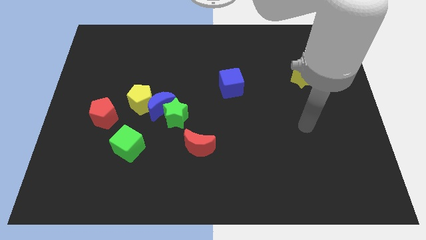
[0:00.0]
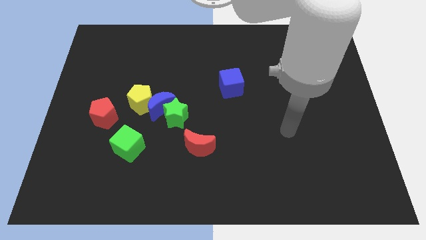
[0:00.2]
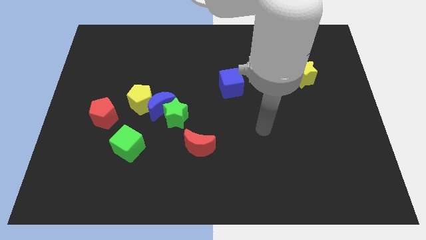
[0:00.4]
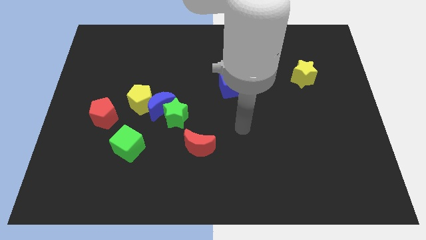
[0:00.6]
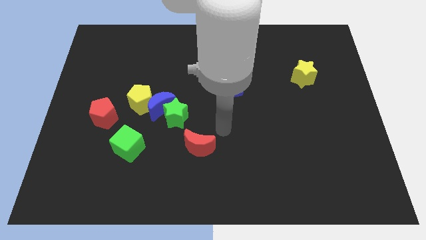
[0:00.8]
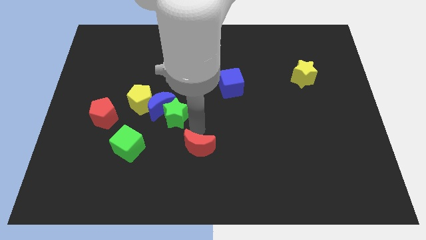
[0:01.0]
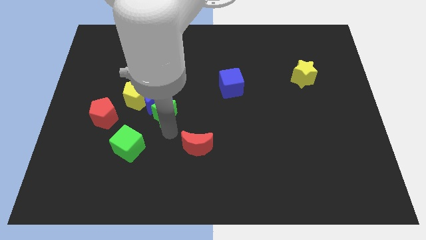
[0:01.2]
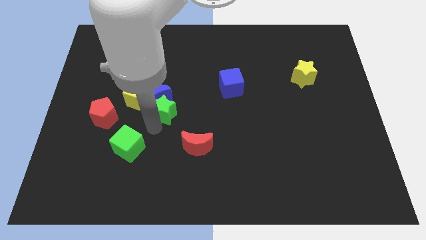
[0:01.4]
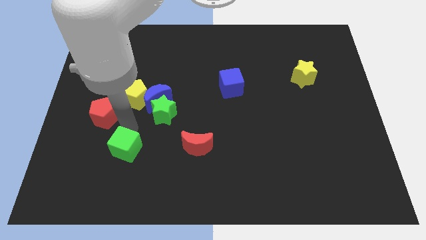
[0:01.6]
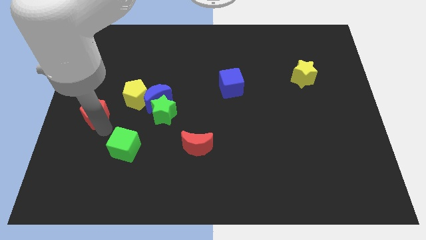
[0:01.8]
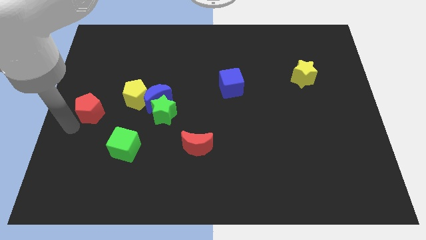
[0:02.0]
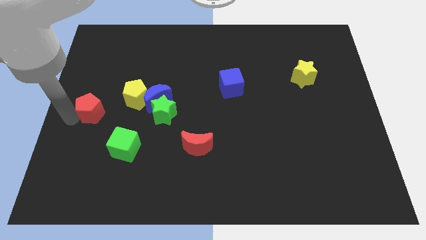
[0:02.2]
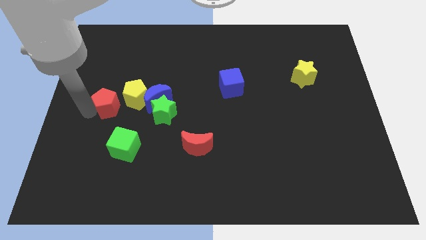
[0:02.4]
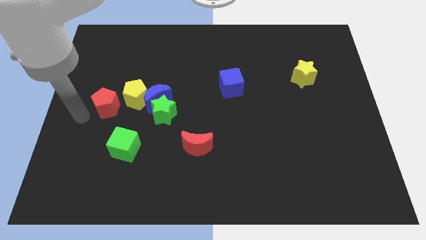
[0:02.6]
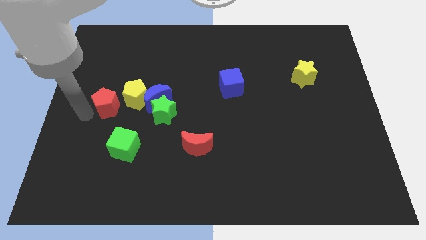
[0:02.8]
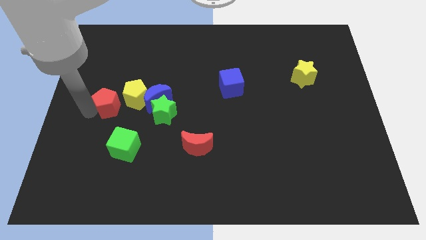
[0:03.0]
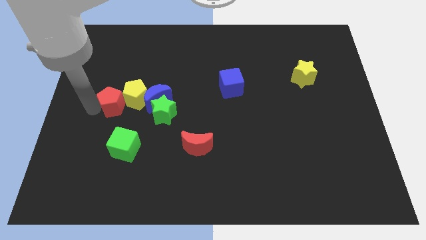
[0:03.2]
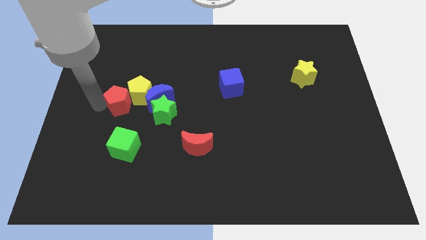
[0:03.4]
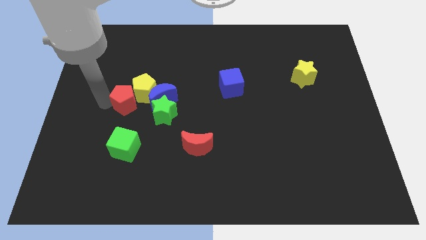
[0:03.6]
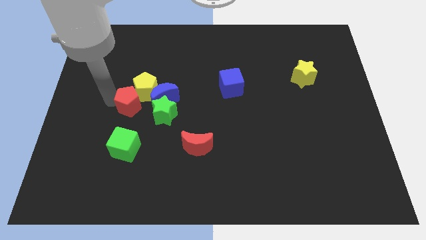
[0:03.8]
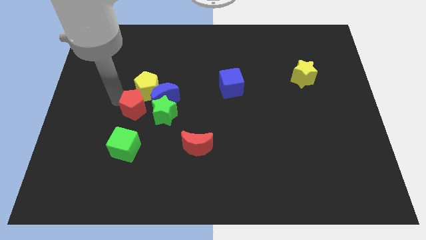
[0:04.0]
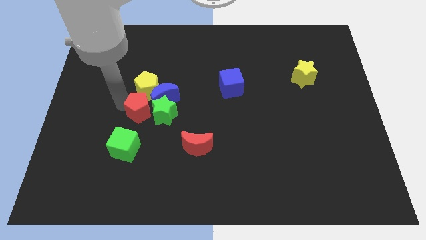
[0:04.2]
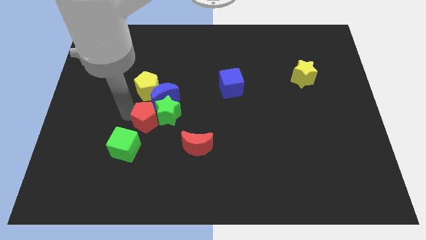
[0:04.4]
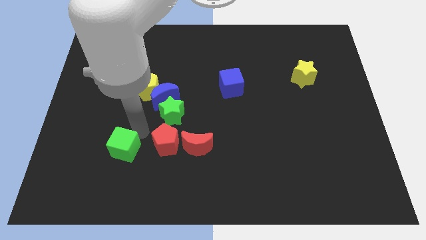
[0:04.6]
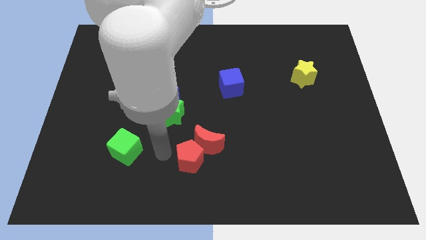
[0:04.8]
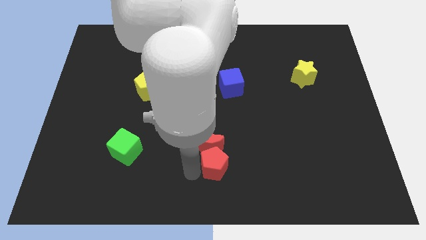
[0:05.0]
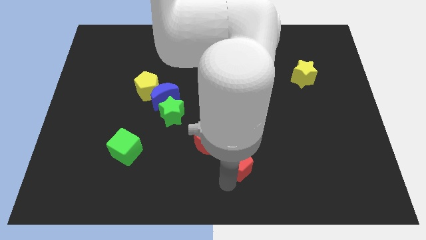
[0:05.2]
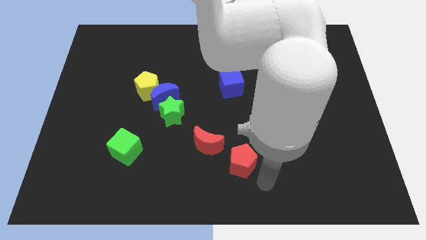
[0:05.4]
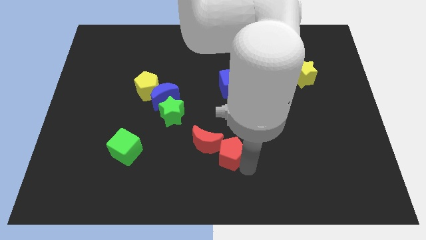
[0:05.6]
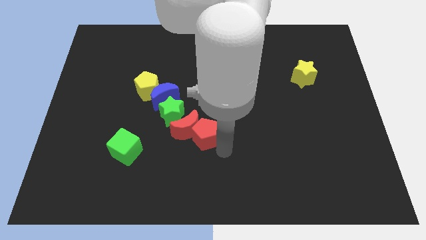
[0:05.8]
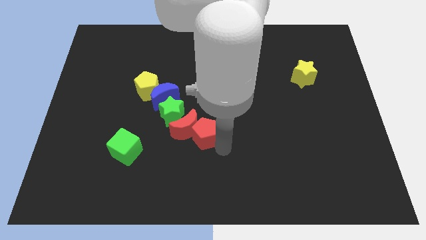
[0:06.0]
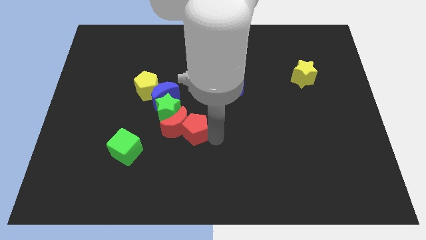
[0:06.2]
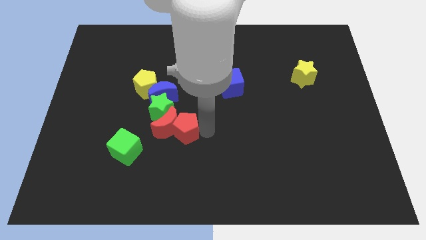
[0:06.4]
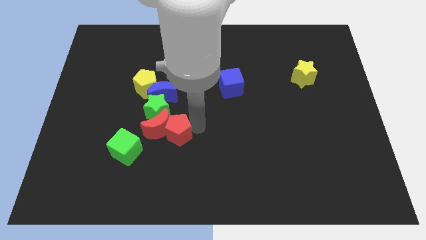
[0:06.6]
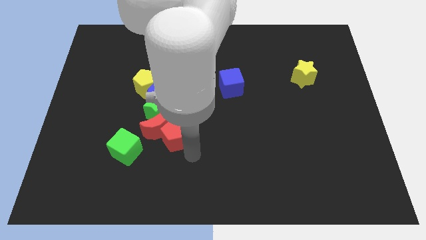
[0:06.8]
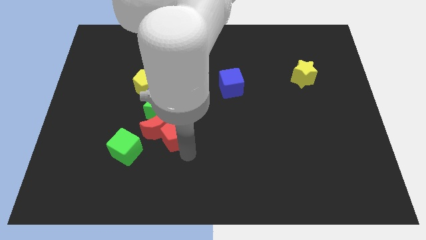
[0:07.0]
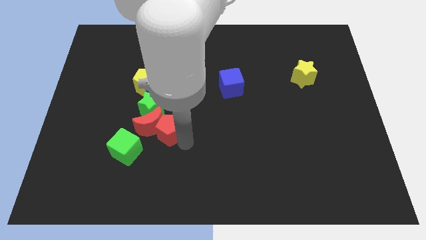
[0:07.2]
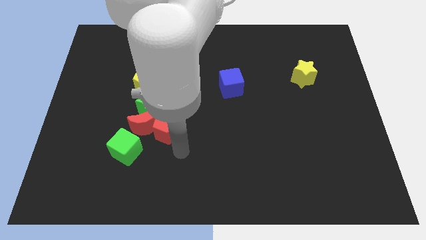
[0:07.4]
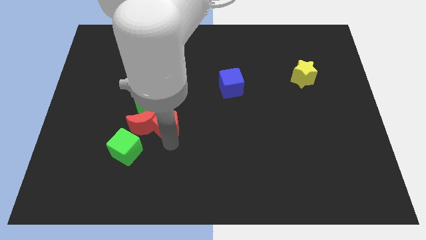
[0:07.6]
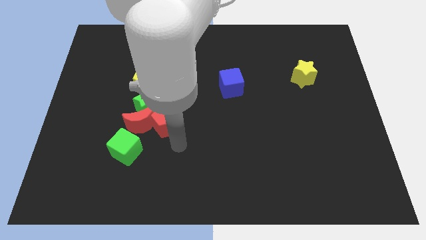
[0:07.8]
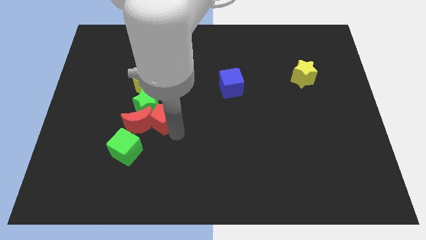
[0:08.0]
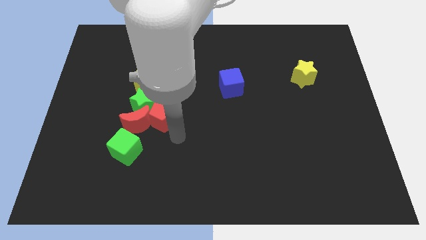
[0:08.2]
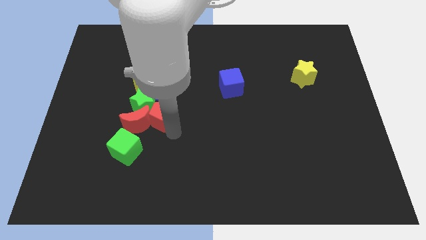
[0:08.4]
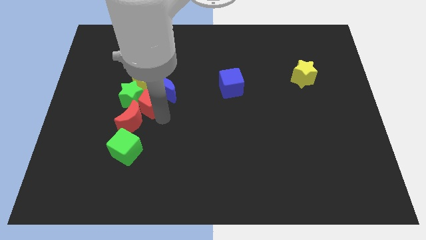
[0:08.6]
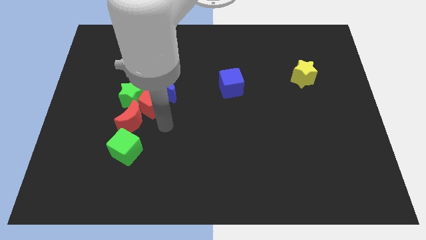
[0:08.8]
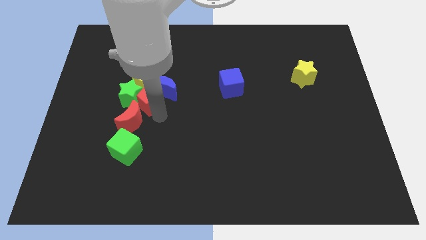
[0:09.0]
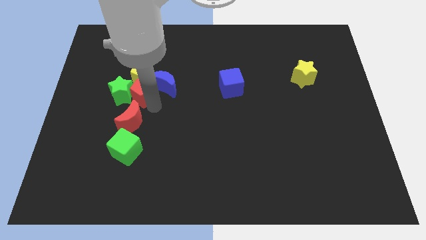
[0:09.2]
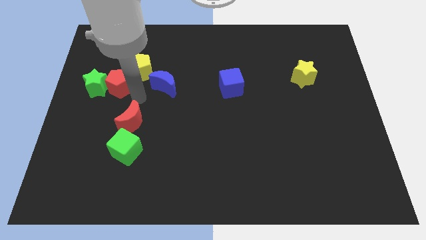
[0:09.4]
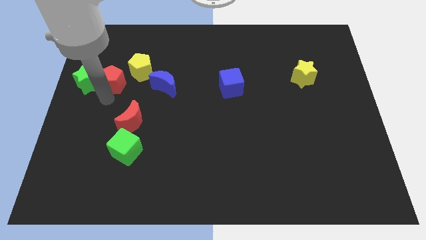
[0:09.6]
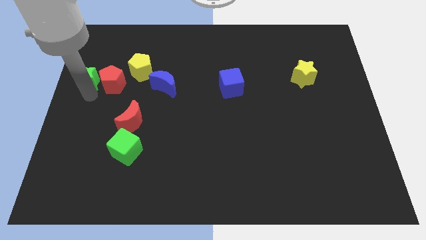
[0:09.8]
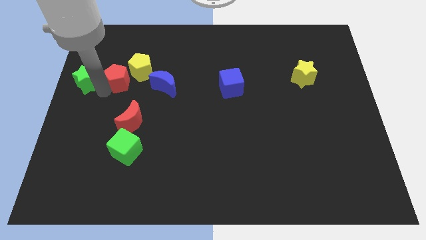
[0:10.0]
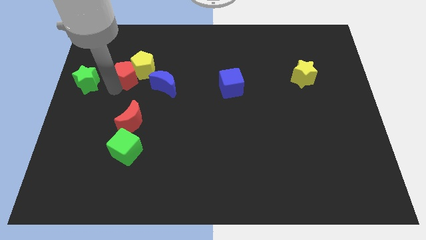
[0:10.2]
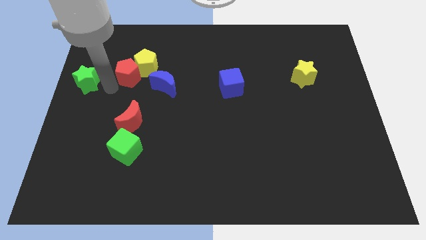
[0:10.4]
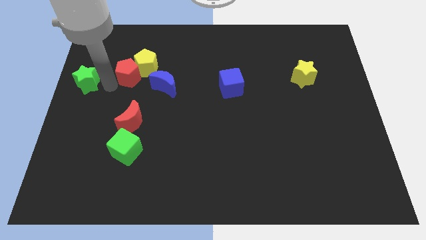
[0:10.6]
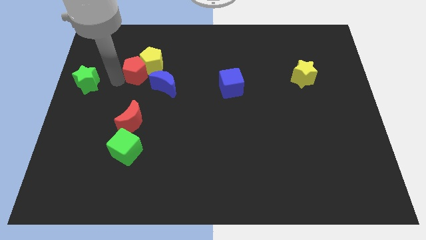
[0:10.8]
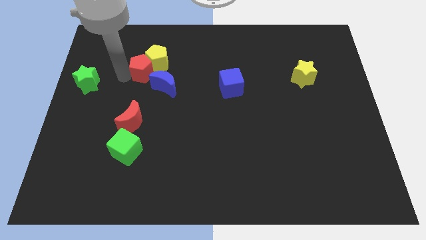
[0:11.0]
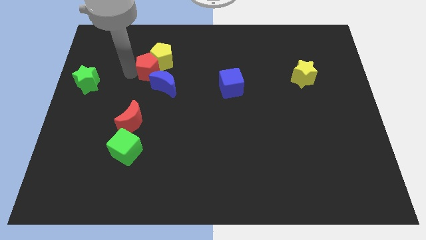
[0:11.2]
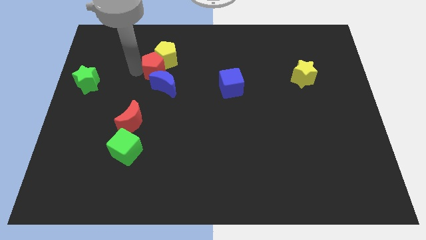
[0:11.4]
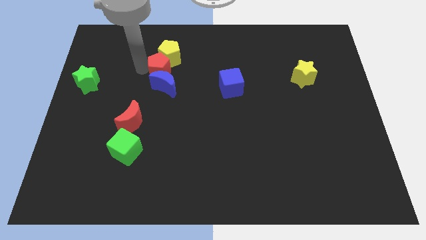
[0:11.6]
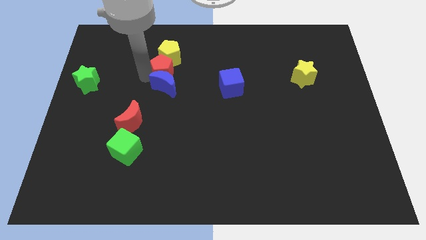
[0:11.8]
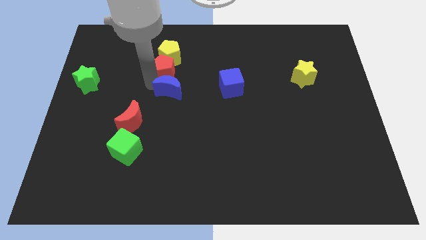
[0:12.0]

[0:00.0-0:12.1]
put the red pentagon above the blue moon

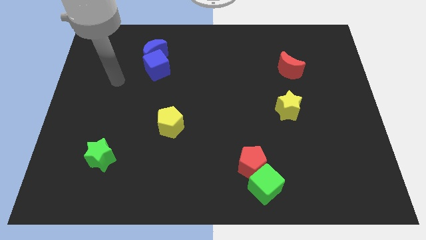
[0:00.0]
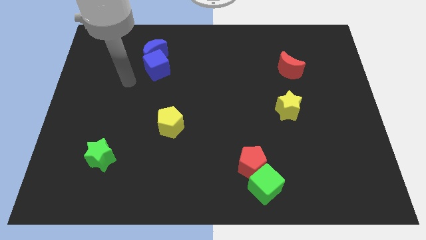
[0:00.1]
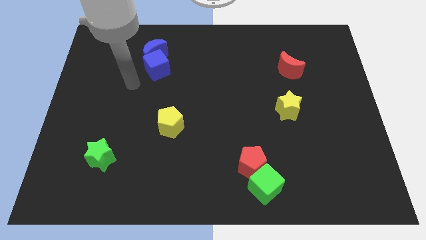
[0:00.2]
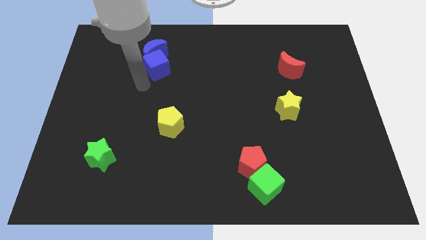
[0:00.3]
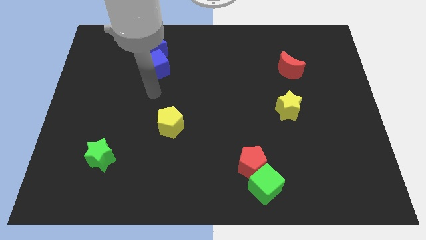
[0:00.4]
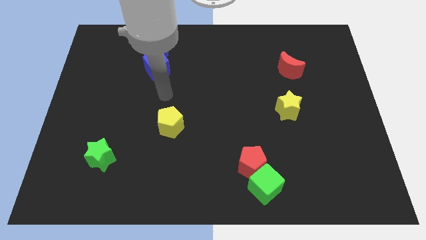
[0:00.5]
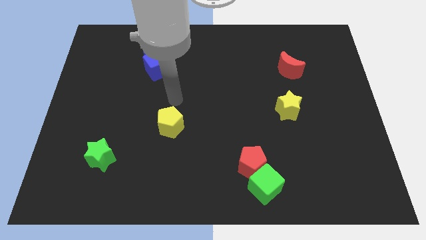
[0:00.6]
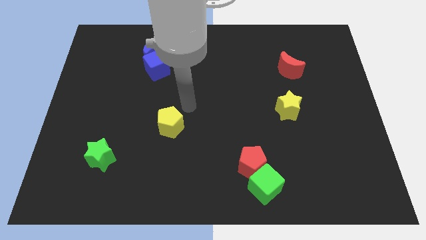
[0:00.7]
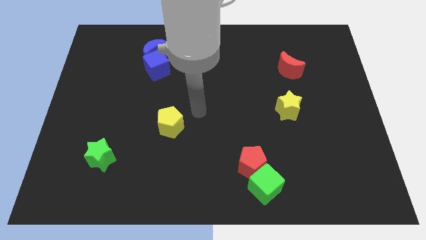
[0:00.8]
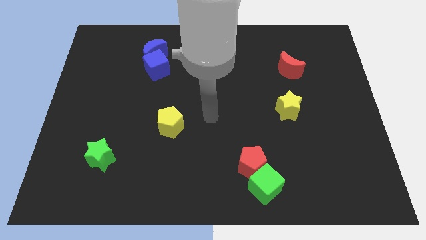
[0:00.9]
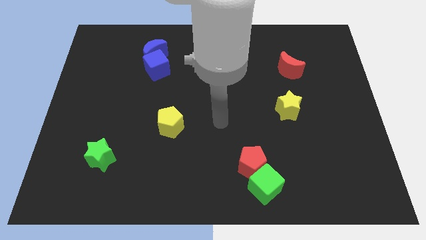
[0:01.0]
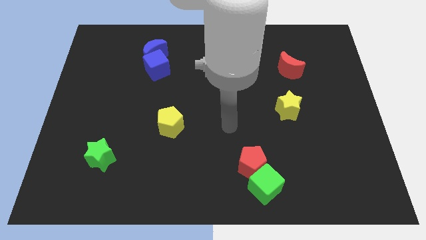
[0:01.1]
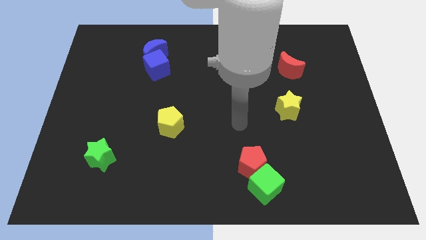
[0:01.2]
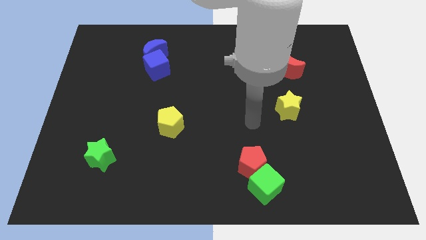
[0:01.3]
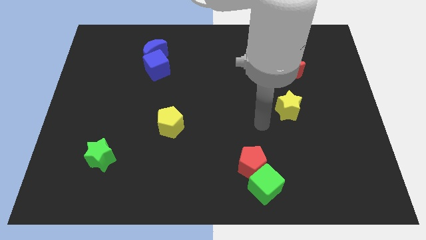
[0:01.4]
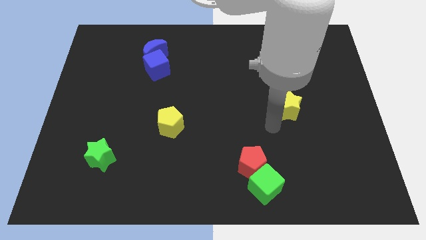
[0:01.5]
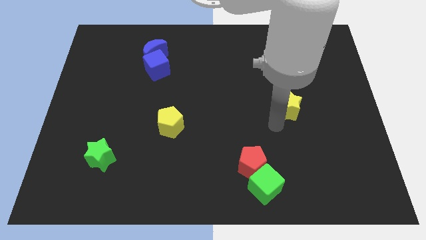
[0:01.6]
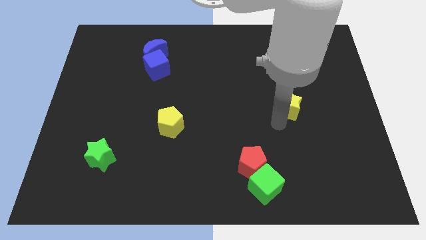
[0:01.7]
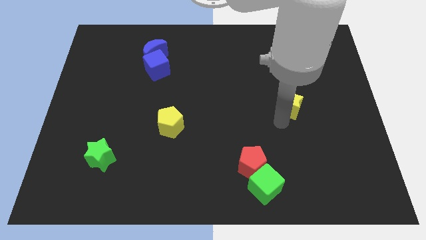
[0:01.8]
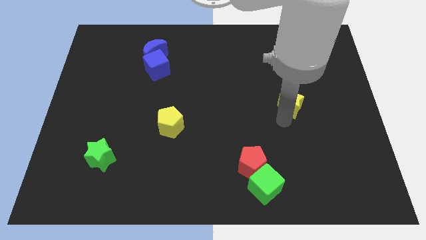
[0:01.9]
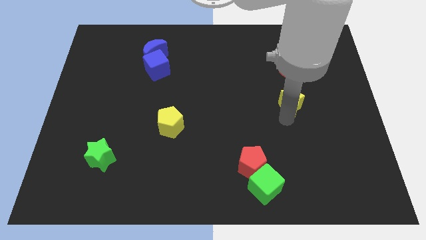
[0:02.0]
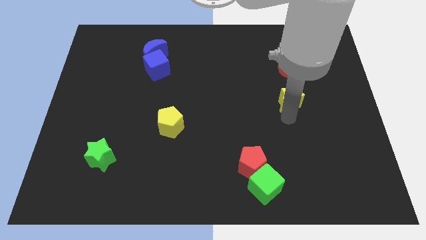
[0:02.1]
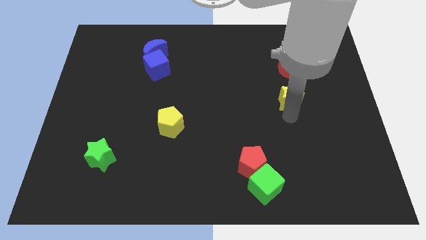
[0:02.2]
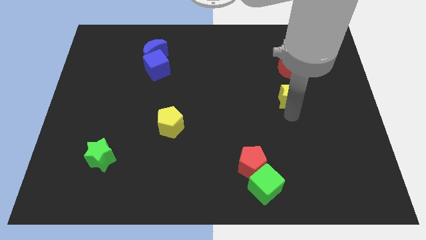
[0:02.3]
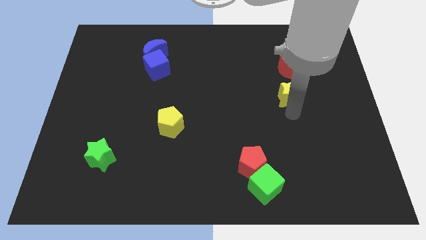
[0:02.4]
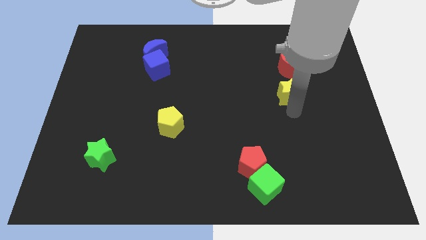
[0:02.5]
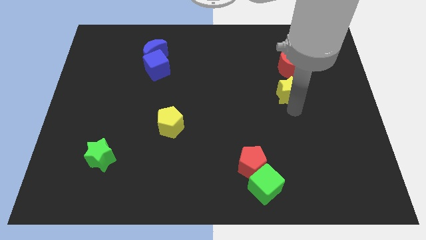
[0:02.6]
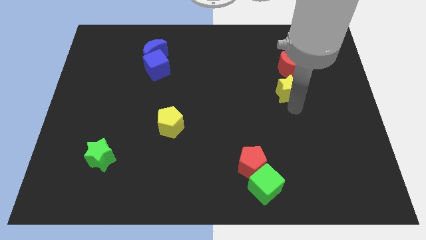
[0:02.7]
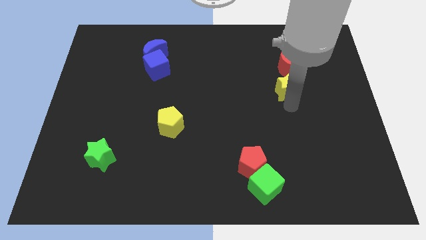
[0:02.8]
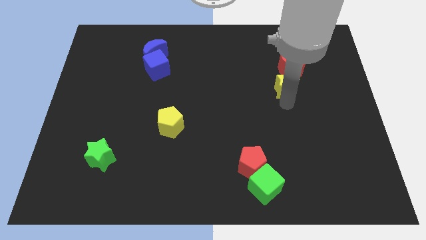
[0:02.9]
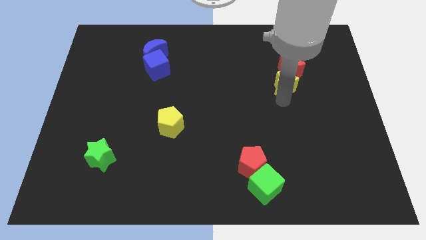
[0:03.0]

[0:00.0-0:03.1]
slide the yellow star to the bottom right of the red moon
